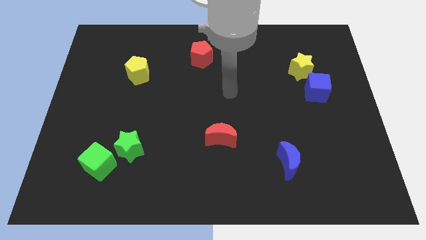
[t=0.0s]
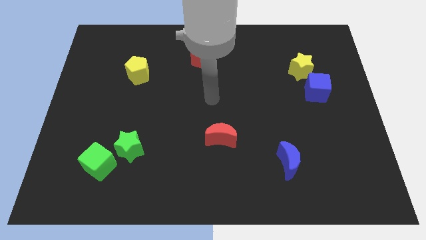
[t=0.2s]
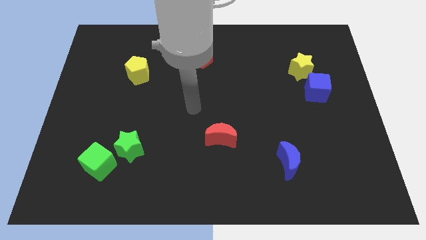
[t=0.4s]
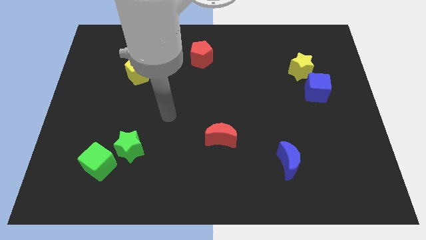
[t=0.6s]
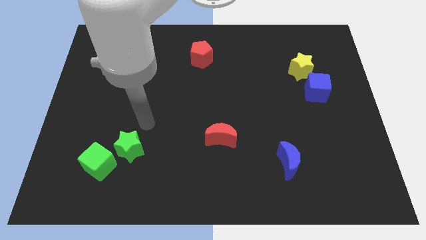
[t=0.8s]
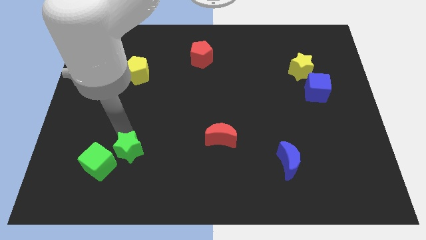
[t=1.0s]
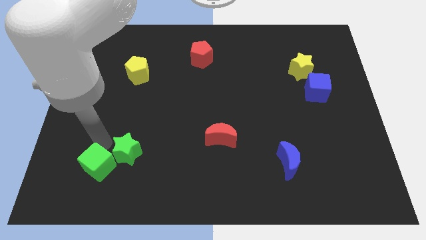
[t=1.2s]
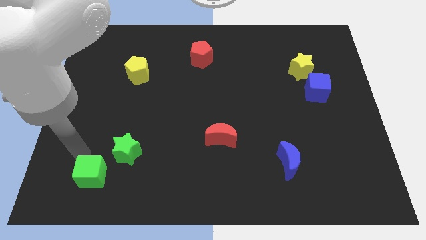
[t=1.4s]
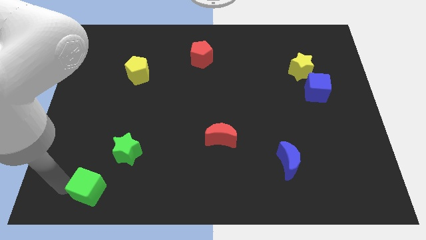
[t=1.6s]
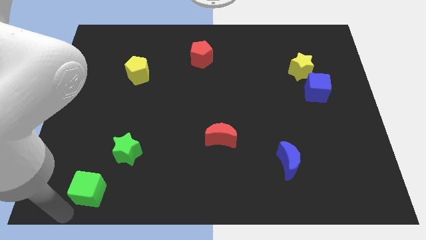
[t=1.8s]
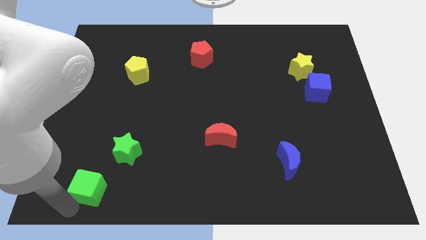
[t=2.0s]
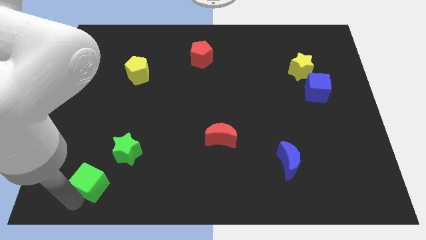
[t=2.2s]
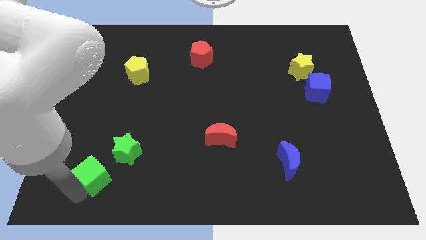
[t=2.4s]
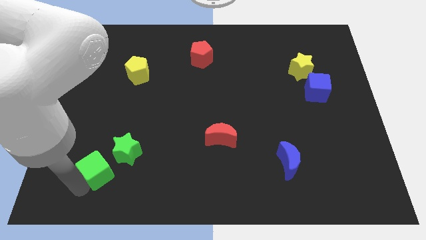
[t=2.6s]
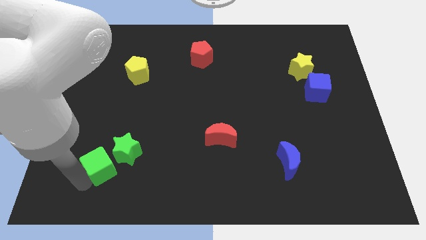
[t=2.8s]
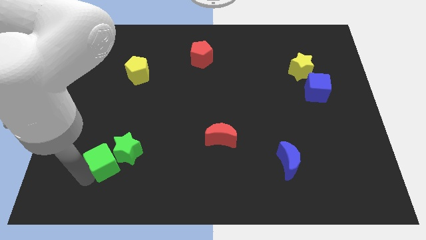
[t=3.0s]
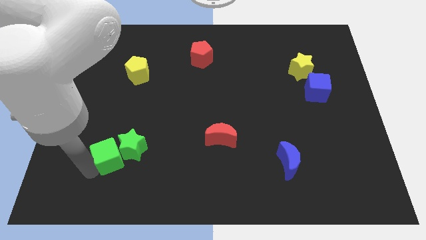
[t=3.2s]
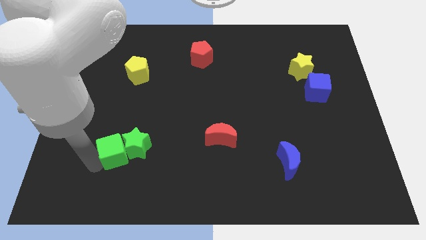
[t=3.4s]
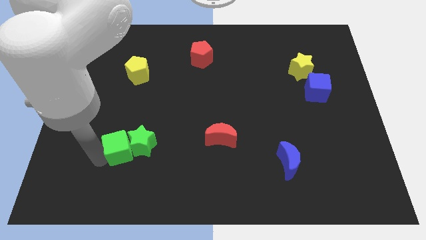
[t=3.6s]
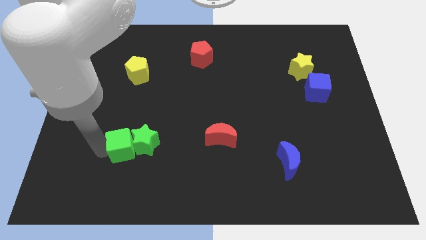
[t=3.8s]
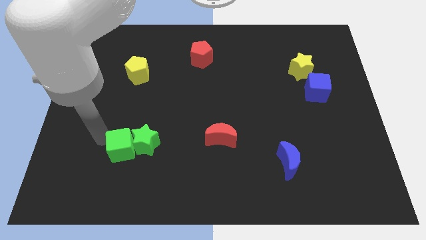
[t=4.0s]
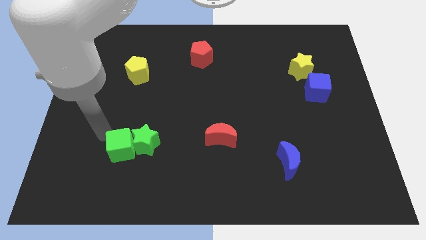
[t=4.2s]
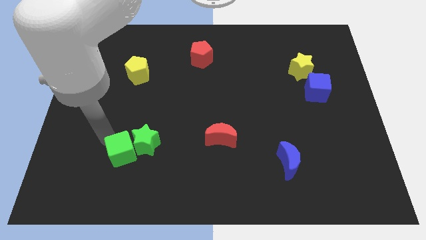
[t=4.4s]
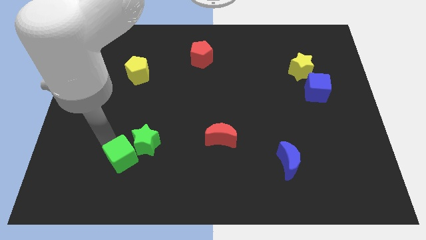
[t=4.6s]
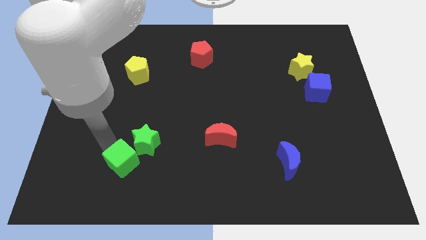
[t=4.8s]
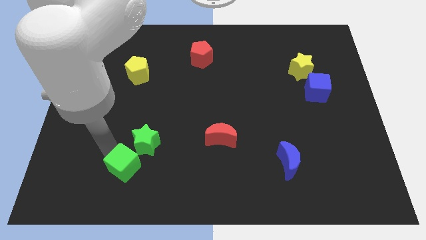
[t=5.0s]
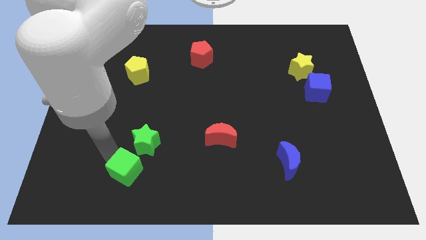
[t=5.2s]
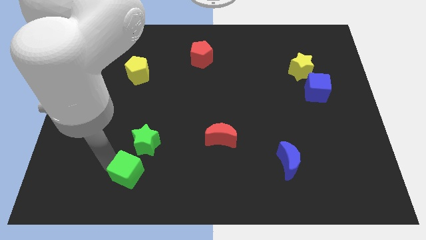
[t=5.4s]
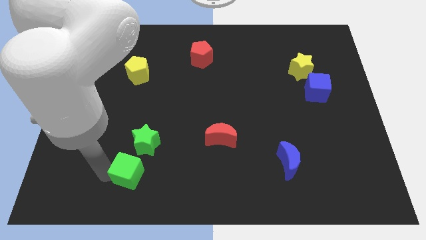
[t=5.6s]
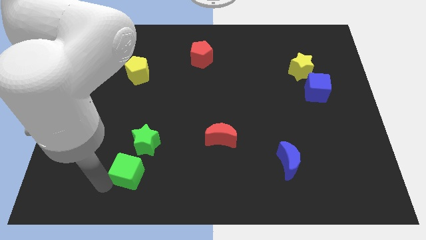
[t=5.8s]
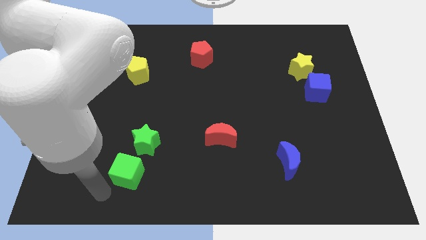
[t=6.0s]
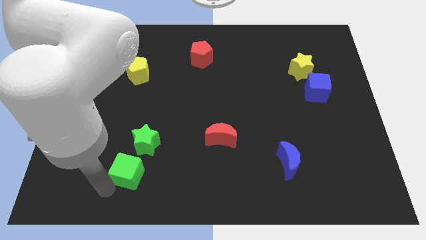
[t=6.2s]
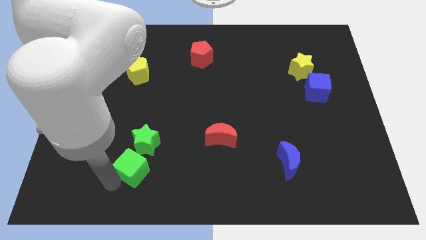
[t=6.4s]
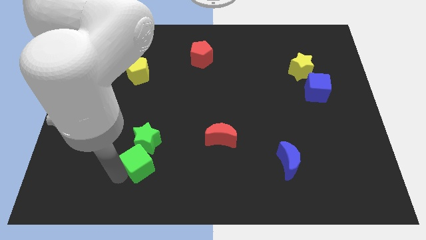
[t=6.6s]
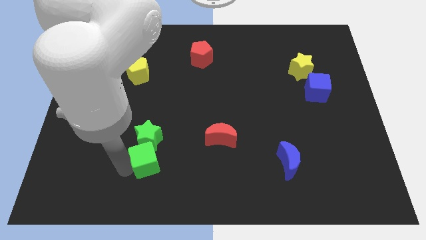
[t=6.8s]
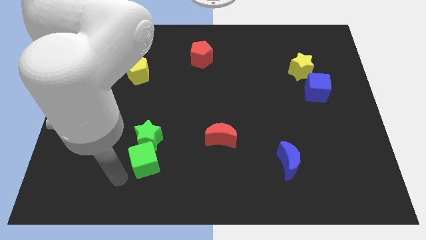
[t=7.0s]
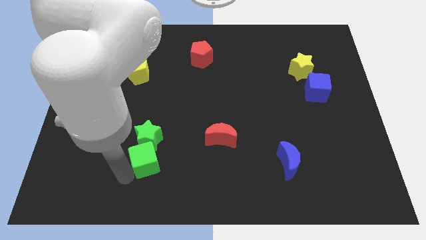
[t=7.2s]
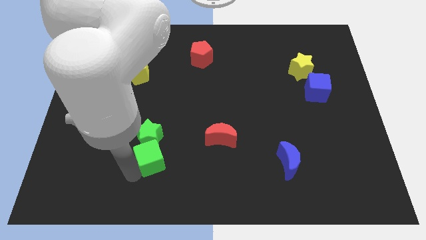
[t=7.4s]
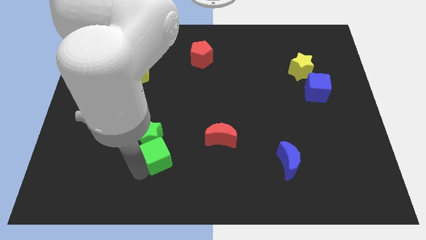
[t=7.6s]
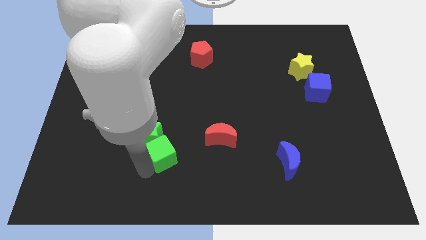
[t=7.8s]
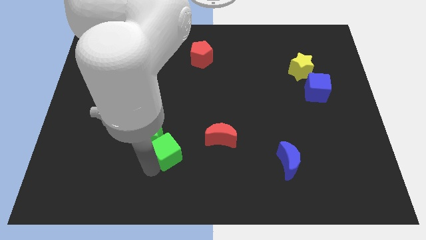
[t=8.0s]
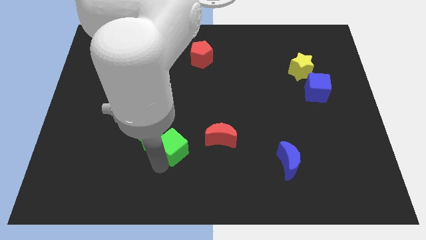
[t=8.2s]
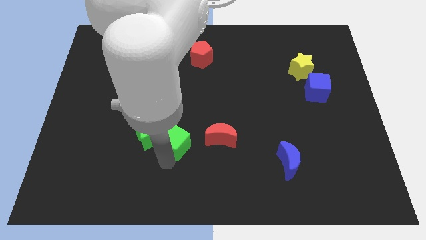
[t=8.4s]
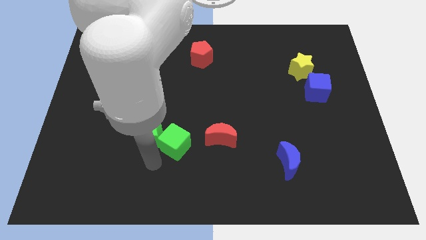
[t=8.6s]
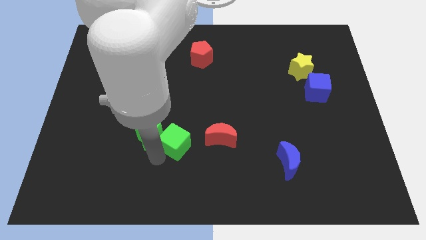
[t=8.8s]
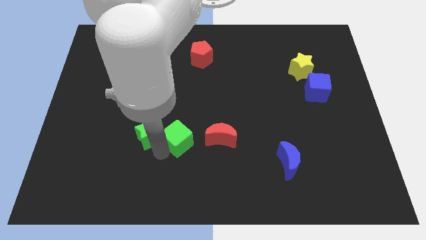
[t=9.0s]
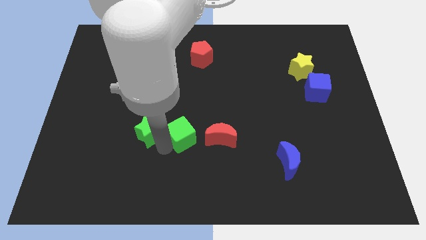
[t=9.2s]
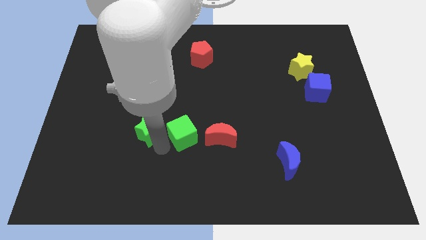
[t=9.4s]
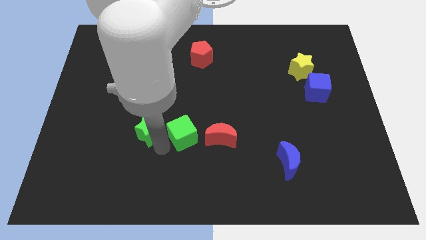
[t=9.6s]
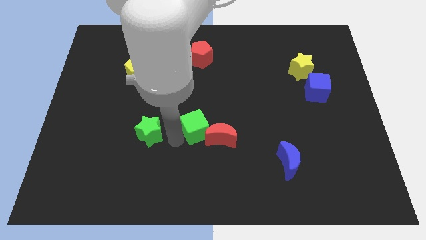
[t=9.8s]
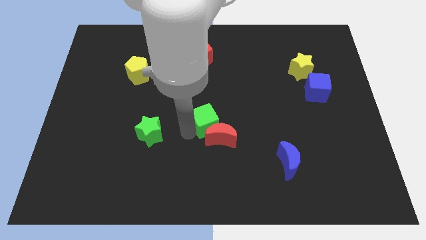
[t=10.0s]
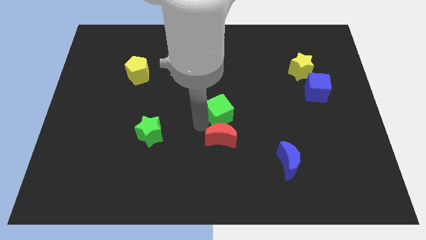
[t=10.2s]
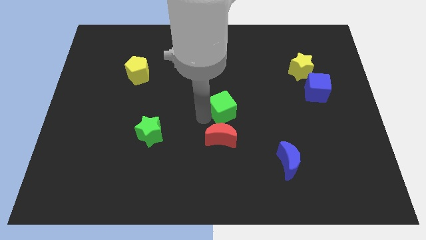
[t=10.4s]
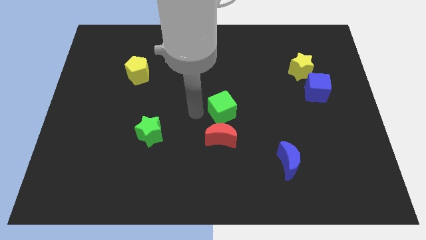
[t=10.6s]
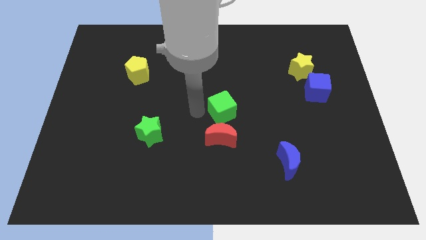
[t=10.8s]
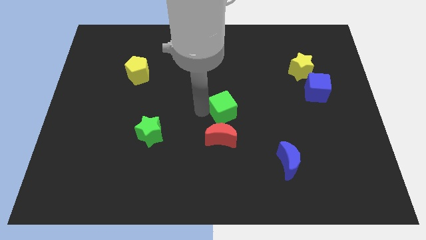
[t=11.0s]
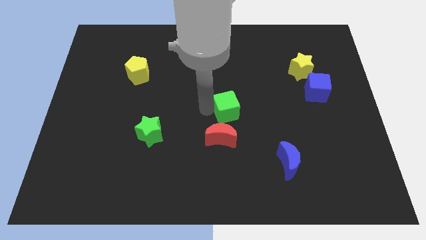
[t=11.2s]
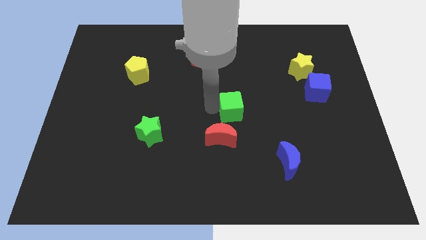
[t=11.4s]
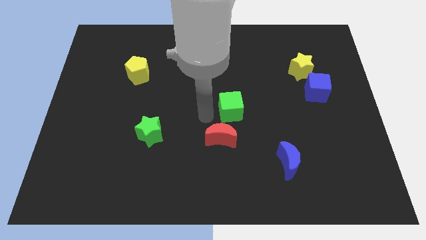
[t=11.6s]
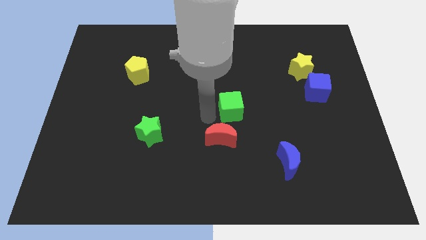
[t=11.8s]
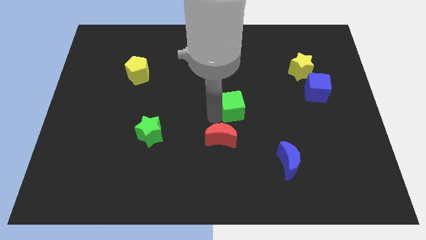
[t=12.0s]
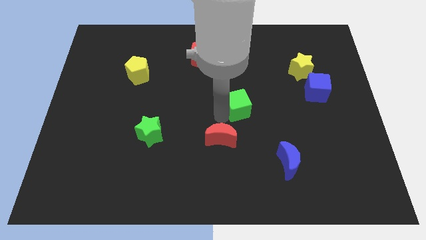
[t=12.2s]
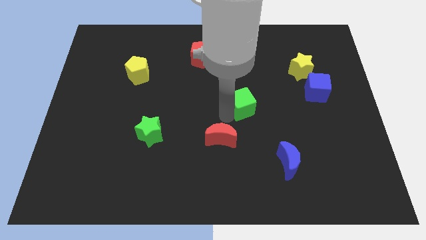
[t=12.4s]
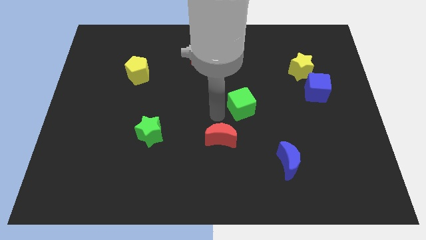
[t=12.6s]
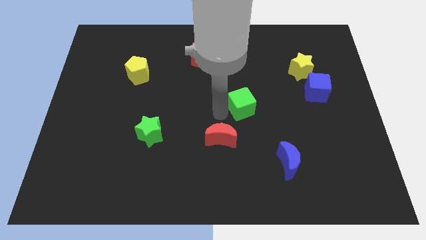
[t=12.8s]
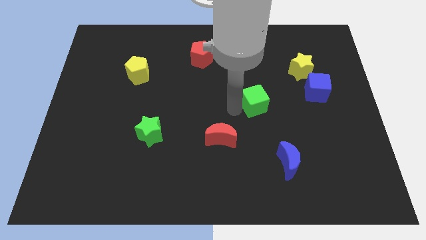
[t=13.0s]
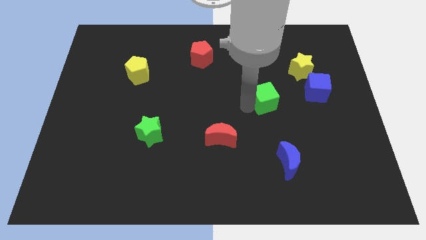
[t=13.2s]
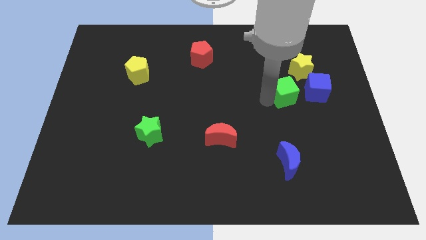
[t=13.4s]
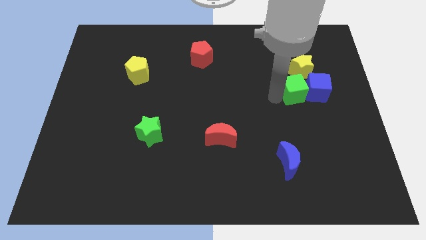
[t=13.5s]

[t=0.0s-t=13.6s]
move the green cube towards the blue cube
